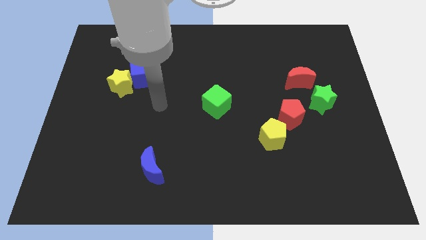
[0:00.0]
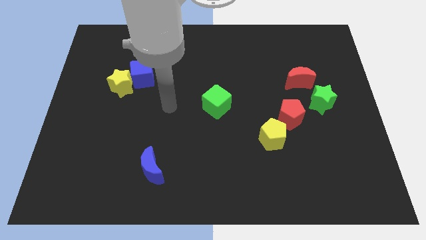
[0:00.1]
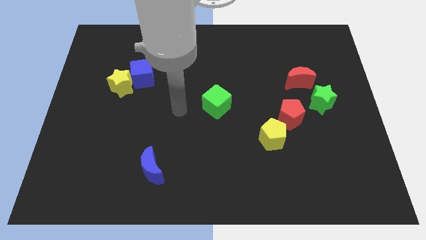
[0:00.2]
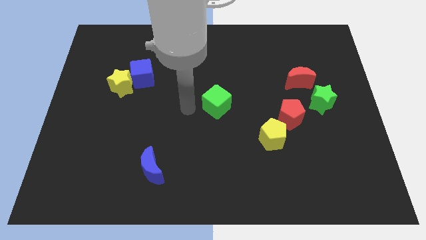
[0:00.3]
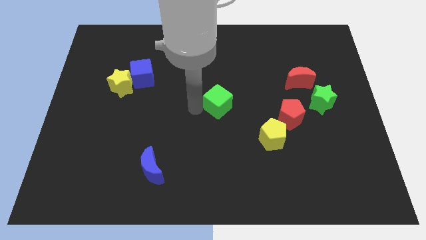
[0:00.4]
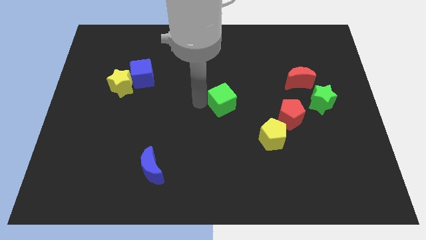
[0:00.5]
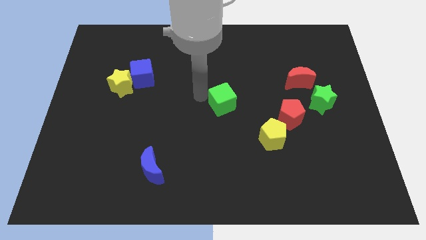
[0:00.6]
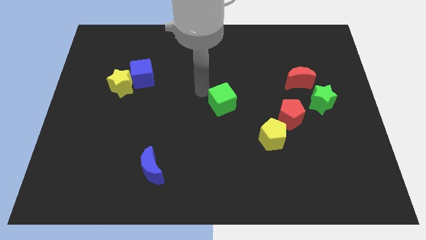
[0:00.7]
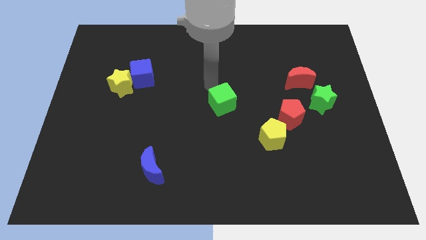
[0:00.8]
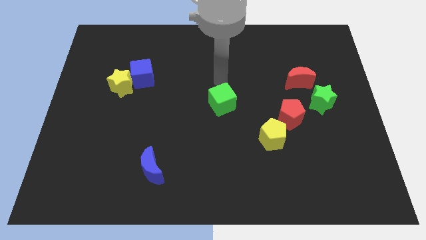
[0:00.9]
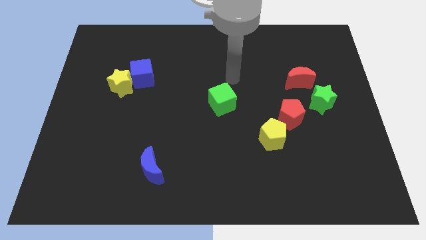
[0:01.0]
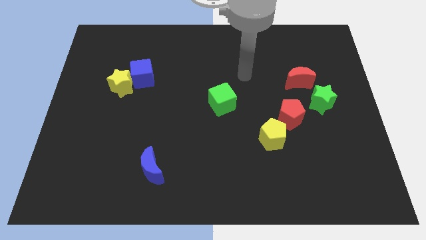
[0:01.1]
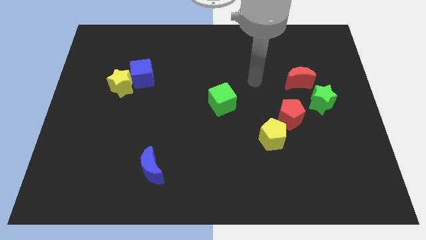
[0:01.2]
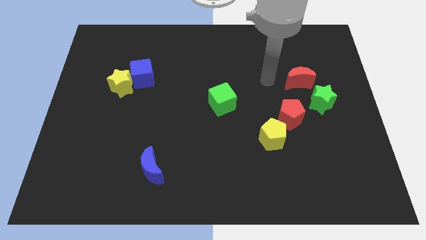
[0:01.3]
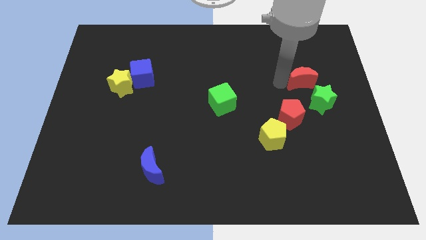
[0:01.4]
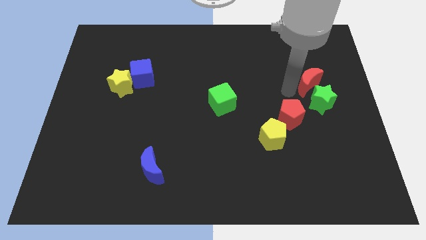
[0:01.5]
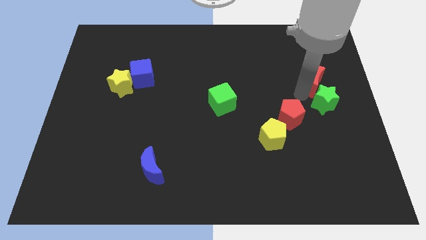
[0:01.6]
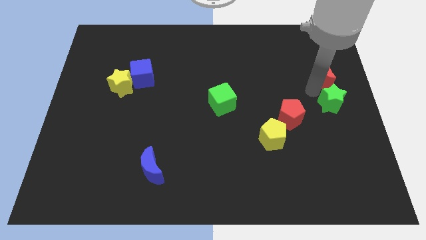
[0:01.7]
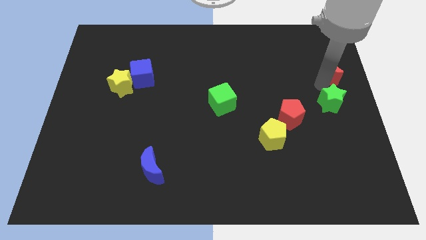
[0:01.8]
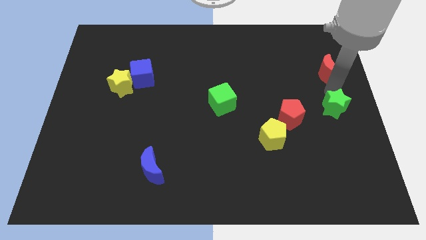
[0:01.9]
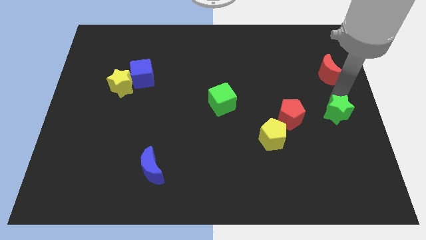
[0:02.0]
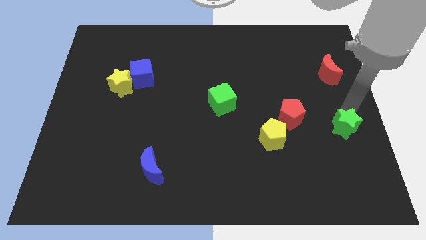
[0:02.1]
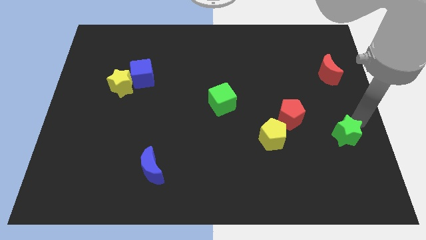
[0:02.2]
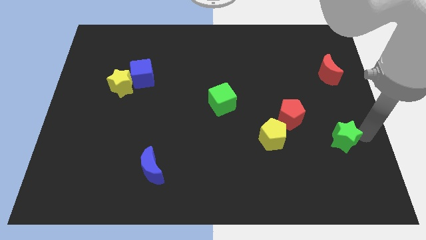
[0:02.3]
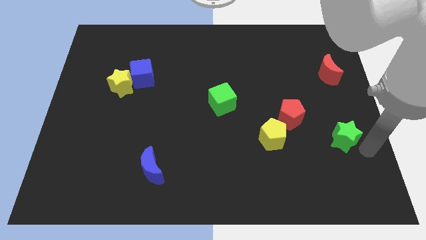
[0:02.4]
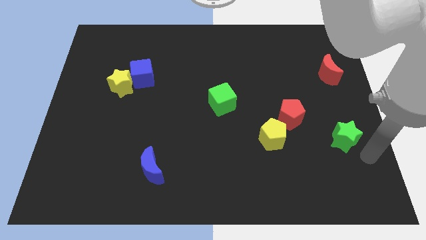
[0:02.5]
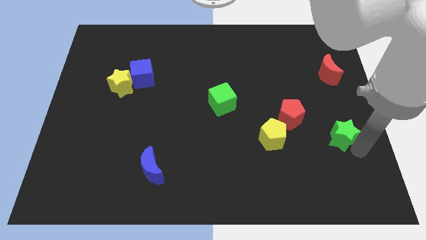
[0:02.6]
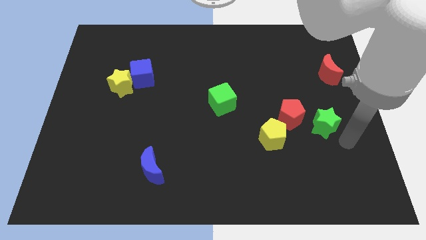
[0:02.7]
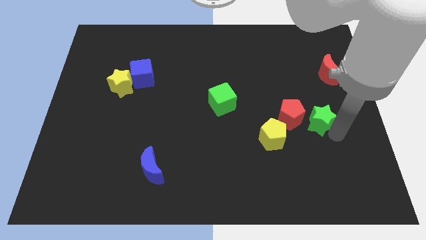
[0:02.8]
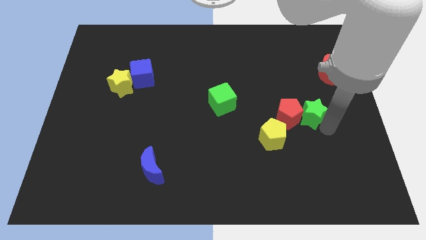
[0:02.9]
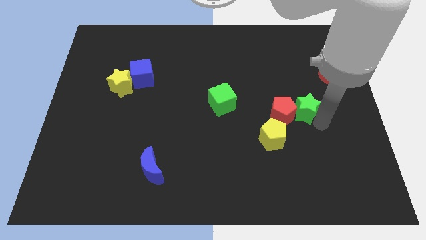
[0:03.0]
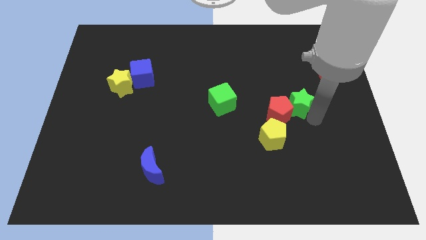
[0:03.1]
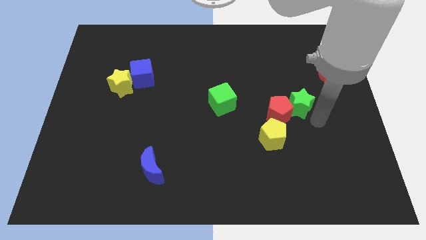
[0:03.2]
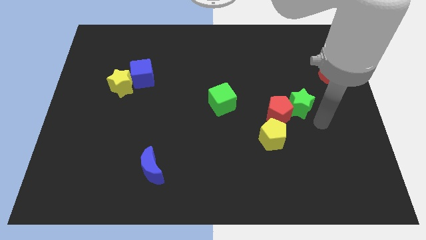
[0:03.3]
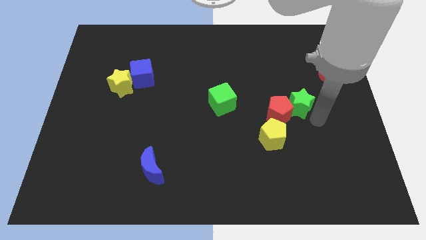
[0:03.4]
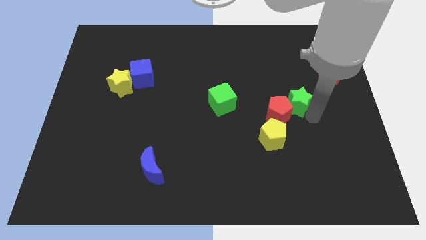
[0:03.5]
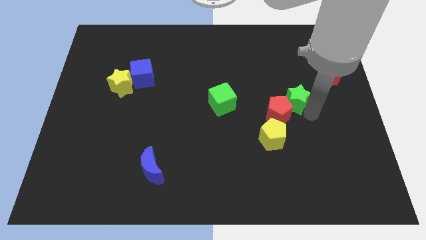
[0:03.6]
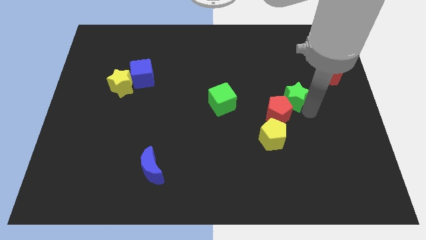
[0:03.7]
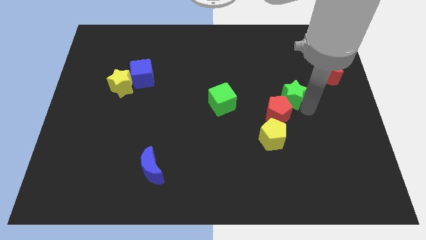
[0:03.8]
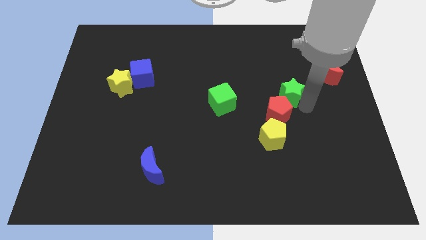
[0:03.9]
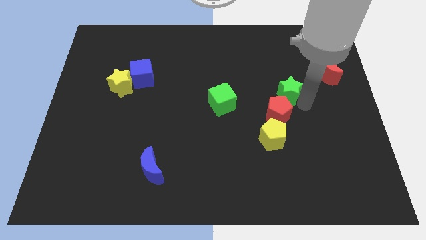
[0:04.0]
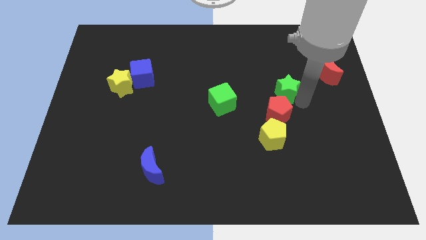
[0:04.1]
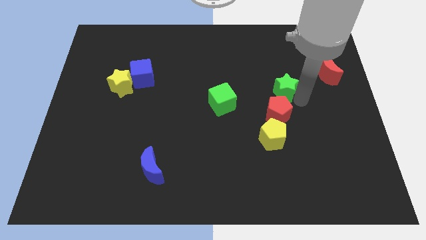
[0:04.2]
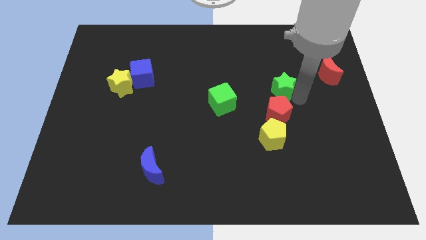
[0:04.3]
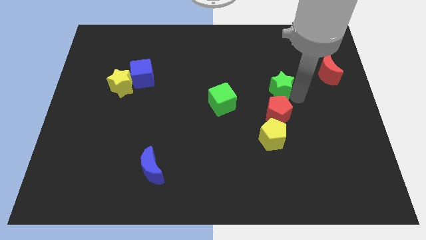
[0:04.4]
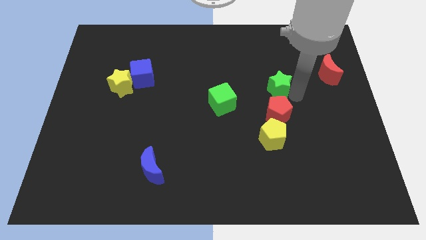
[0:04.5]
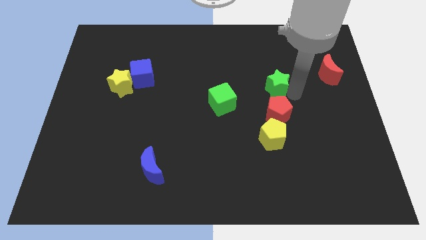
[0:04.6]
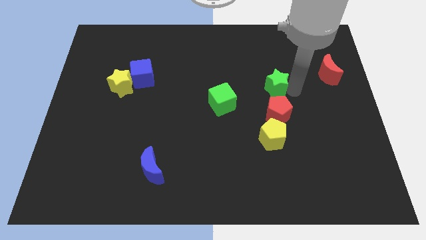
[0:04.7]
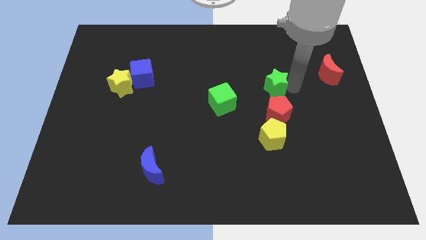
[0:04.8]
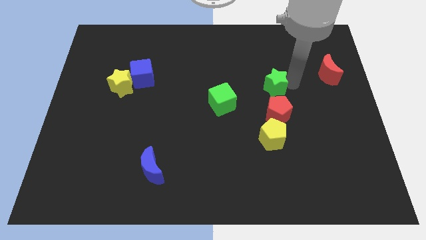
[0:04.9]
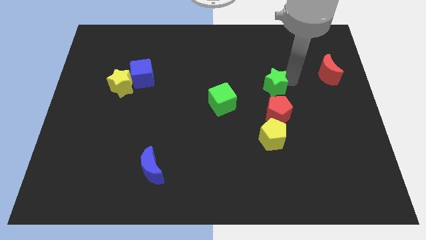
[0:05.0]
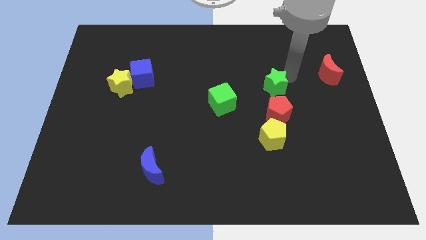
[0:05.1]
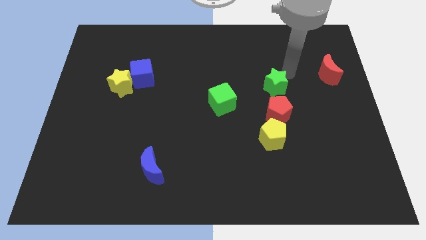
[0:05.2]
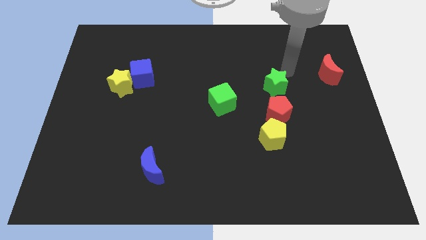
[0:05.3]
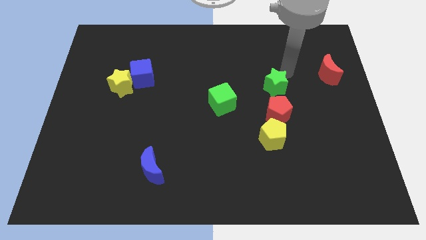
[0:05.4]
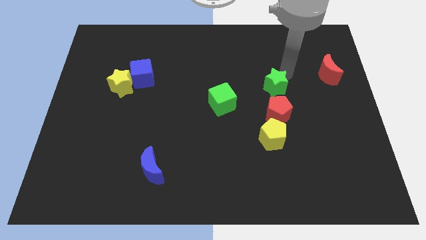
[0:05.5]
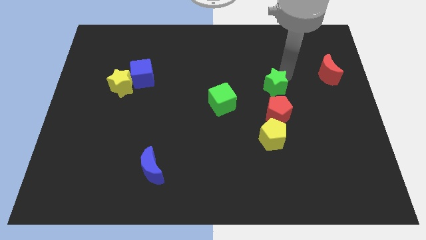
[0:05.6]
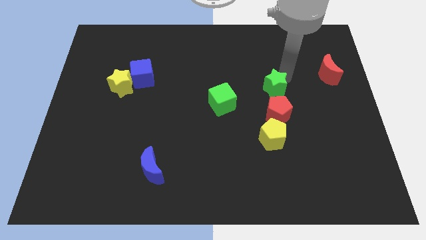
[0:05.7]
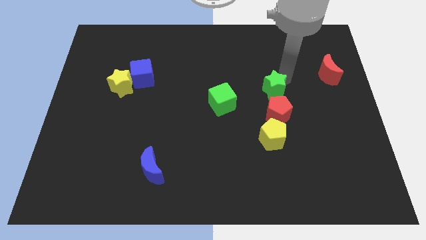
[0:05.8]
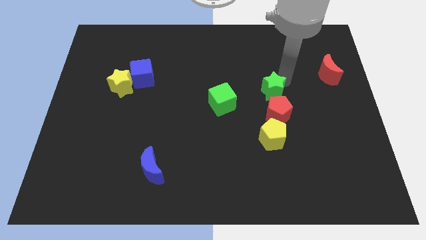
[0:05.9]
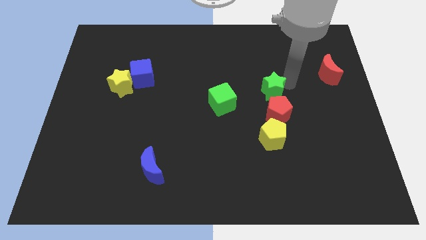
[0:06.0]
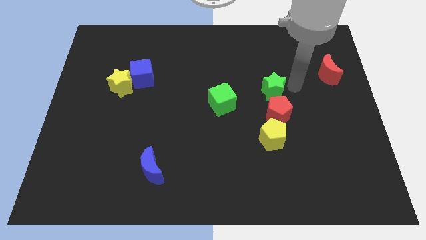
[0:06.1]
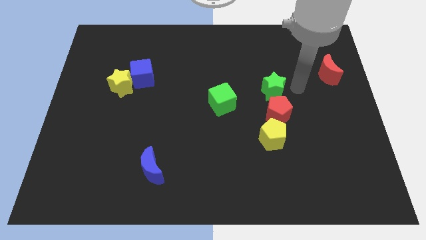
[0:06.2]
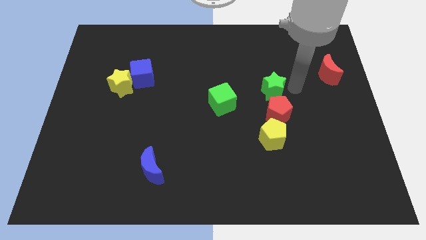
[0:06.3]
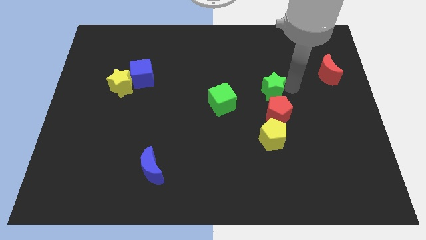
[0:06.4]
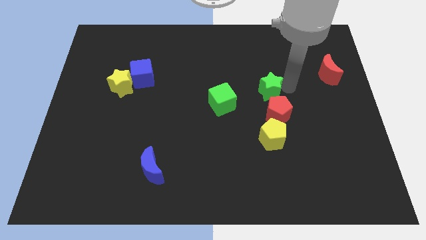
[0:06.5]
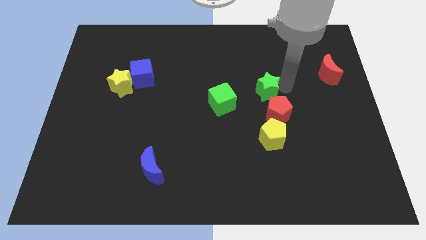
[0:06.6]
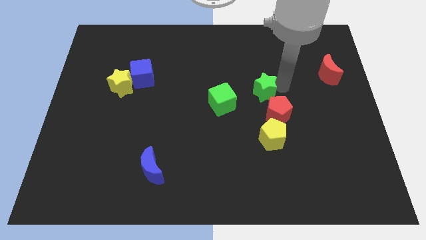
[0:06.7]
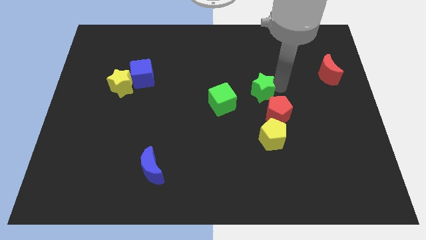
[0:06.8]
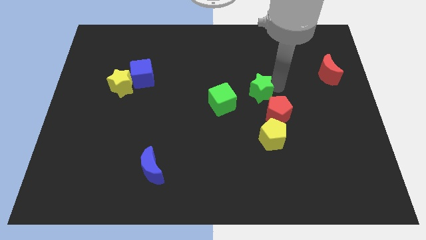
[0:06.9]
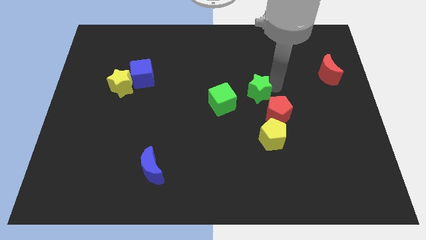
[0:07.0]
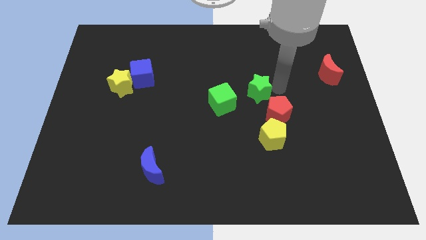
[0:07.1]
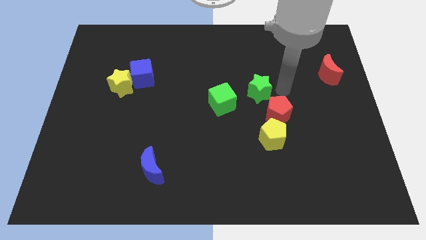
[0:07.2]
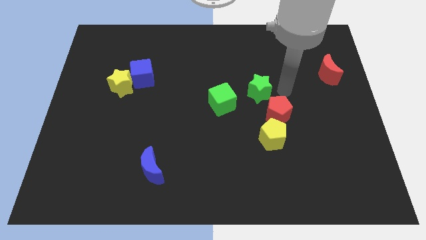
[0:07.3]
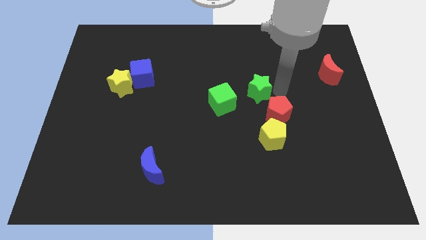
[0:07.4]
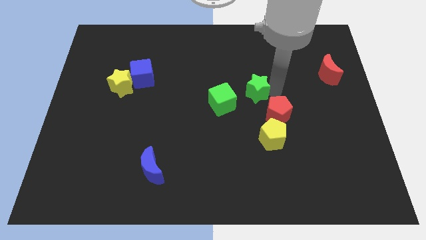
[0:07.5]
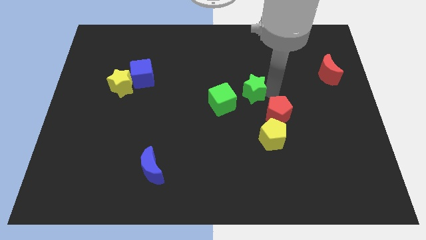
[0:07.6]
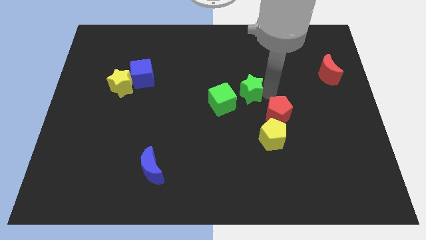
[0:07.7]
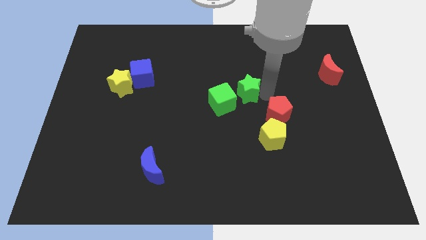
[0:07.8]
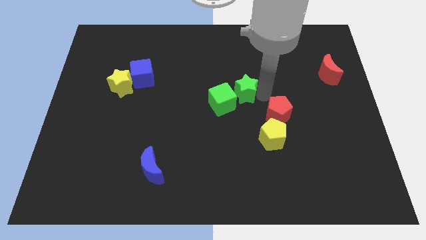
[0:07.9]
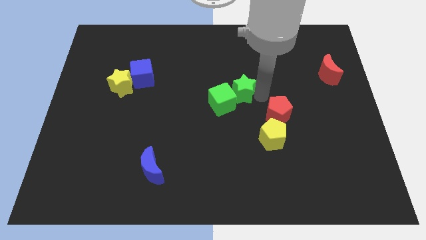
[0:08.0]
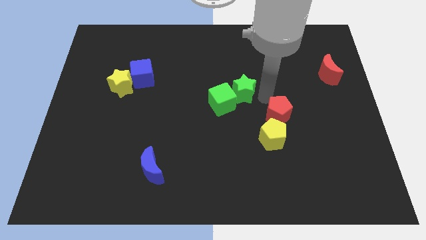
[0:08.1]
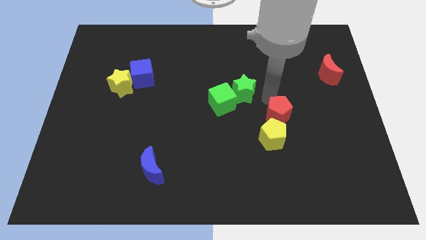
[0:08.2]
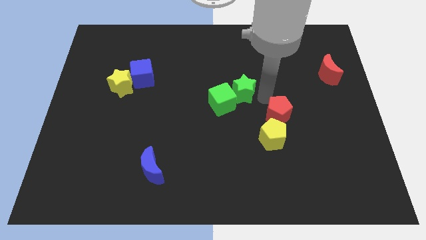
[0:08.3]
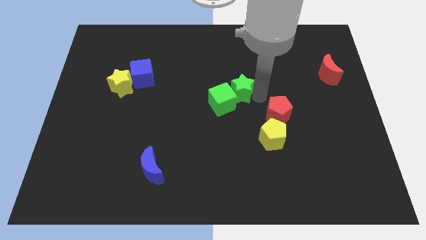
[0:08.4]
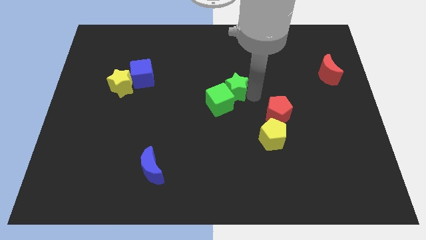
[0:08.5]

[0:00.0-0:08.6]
move the green star left
